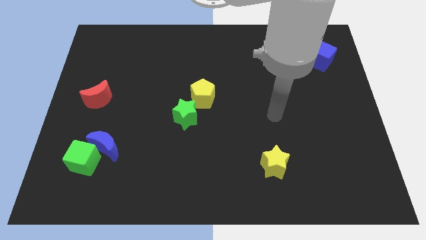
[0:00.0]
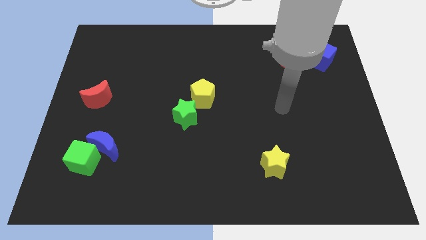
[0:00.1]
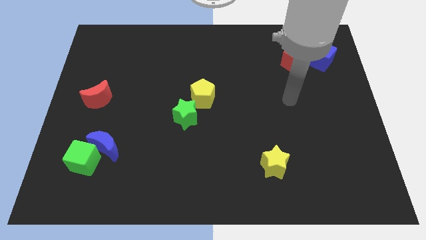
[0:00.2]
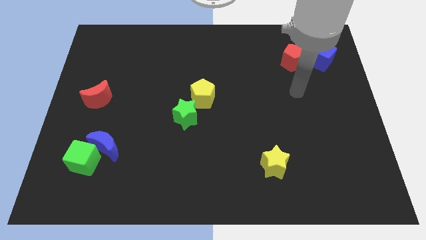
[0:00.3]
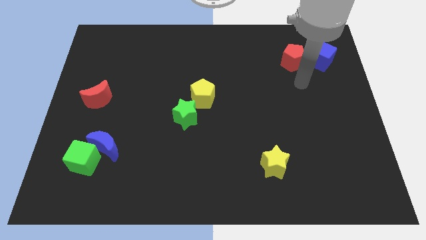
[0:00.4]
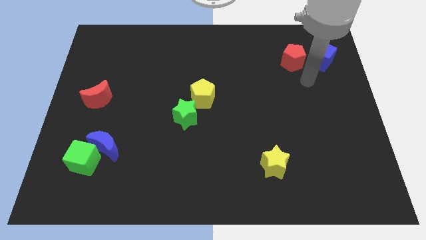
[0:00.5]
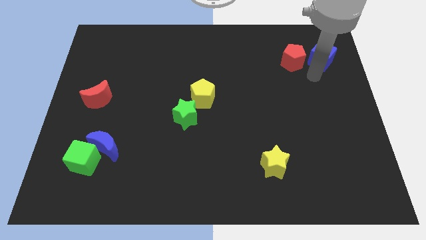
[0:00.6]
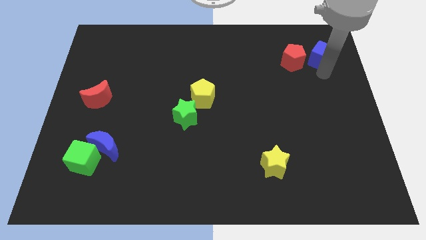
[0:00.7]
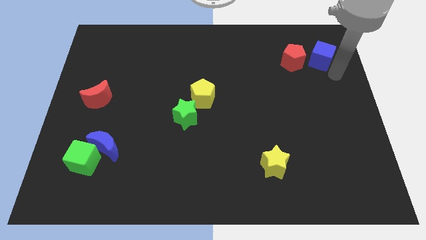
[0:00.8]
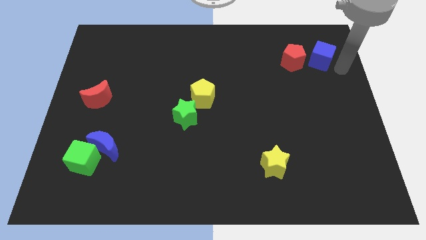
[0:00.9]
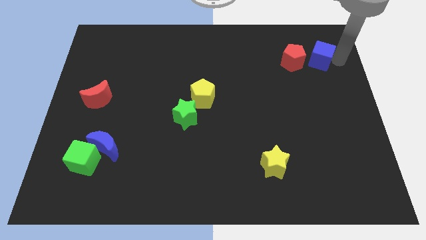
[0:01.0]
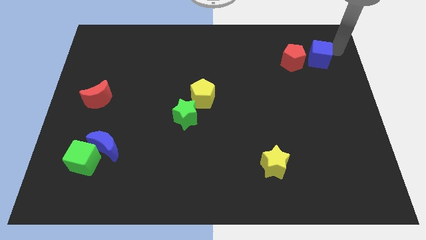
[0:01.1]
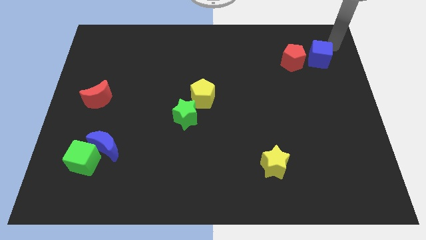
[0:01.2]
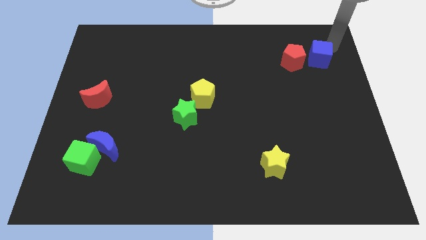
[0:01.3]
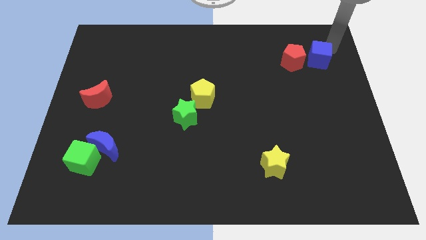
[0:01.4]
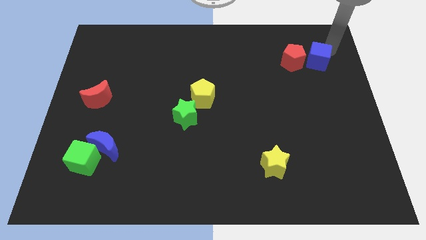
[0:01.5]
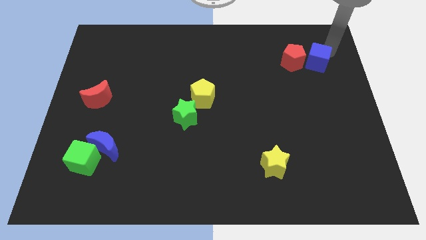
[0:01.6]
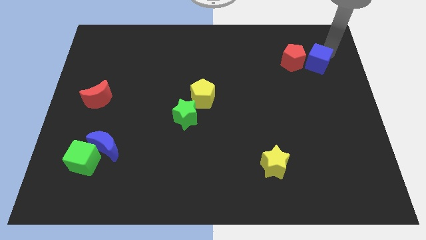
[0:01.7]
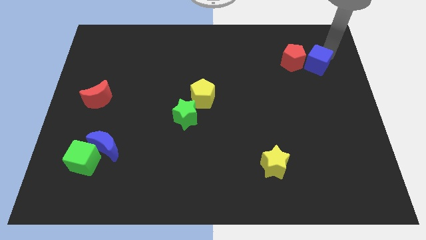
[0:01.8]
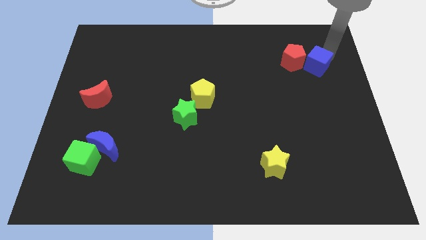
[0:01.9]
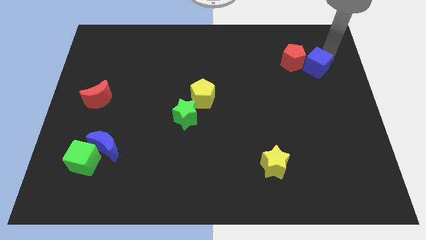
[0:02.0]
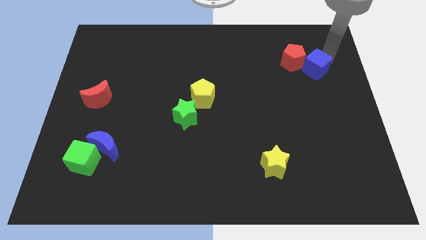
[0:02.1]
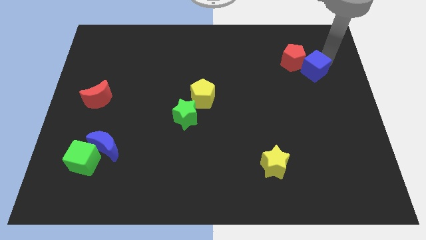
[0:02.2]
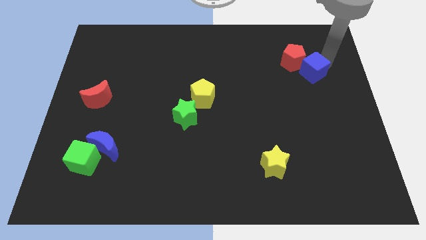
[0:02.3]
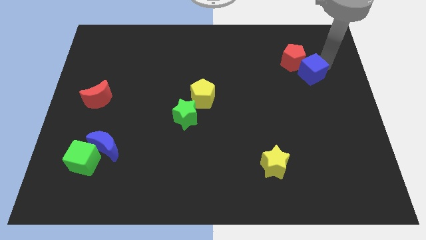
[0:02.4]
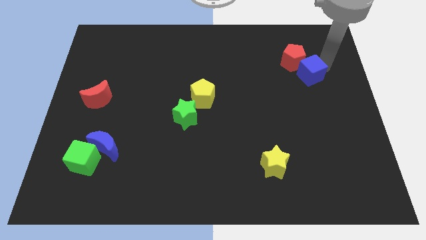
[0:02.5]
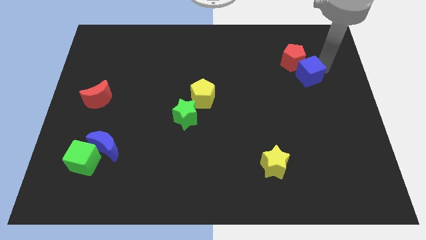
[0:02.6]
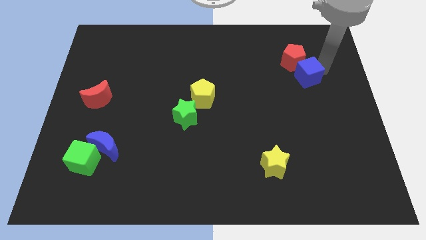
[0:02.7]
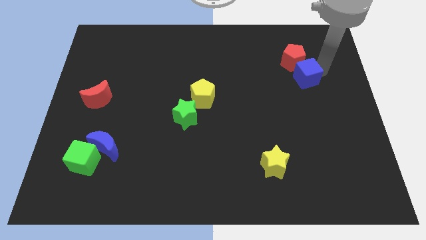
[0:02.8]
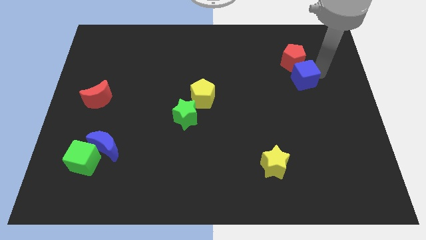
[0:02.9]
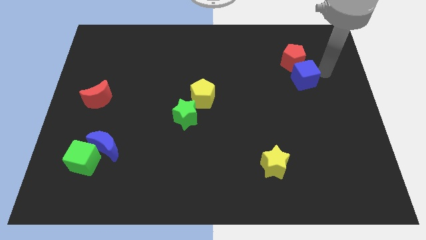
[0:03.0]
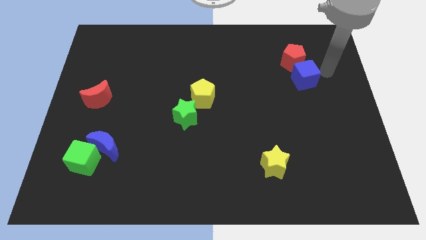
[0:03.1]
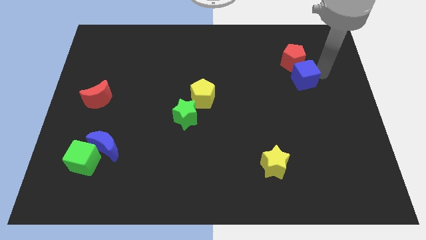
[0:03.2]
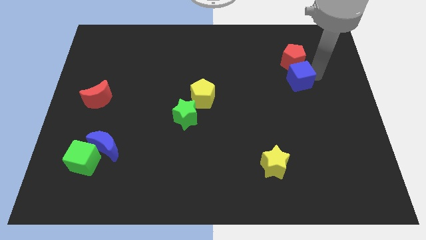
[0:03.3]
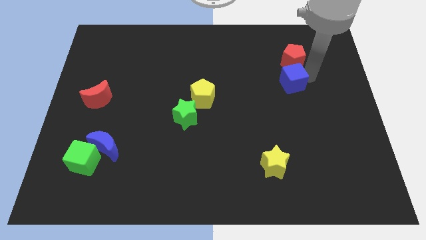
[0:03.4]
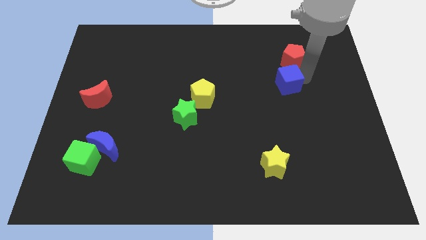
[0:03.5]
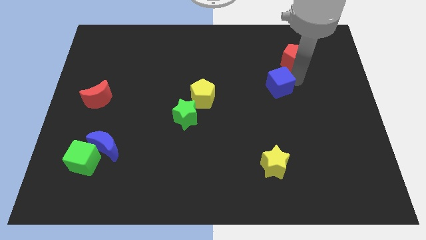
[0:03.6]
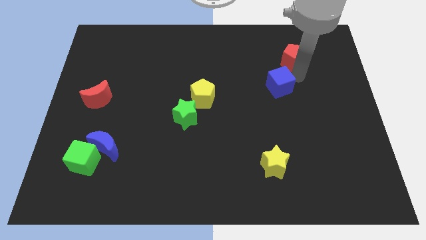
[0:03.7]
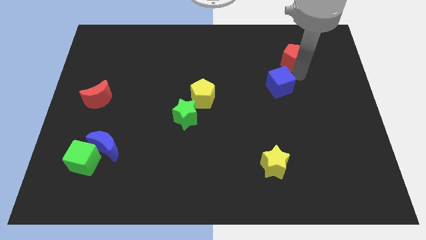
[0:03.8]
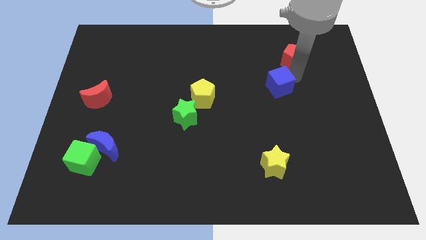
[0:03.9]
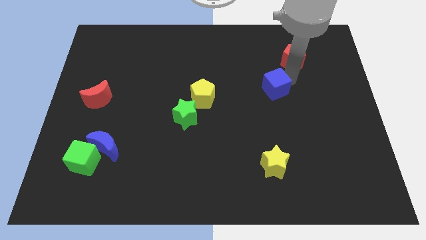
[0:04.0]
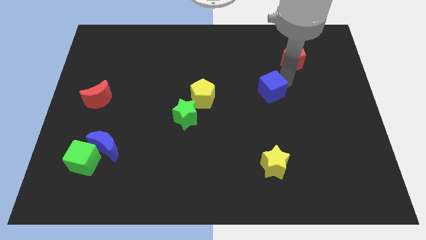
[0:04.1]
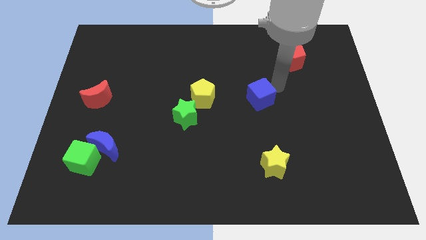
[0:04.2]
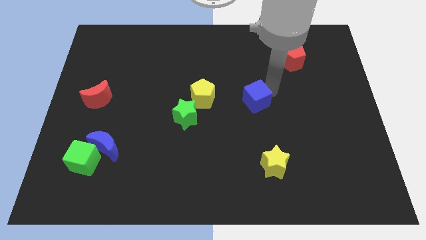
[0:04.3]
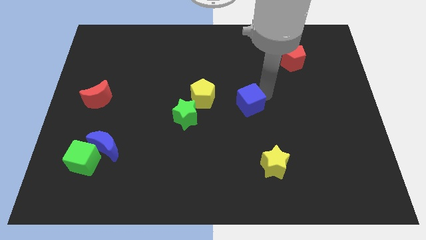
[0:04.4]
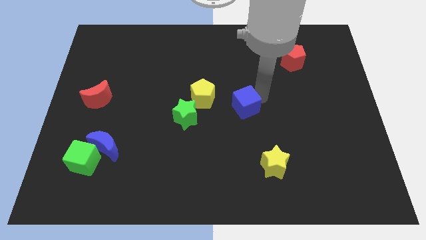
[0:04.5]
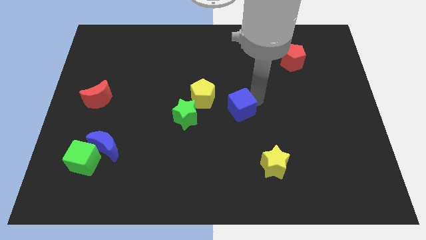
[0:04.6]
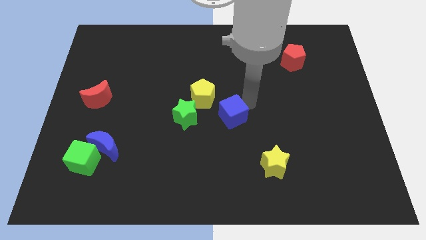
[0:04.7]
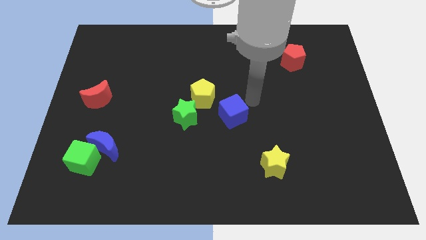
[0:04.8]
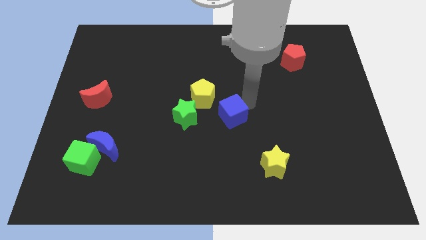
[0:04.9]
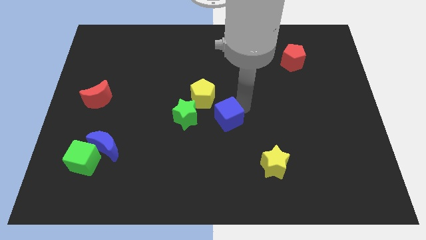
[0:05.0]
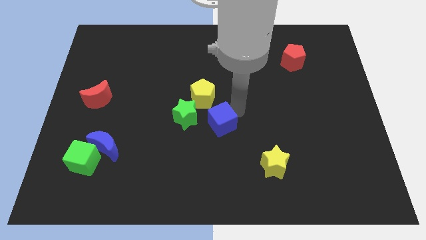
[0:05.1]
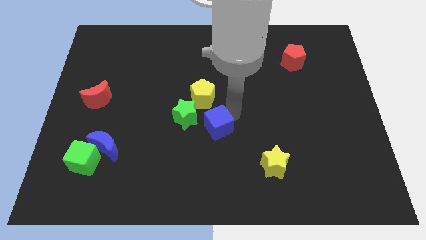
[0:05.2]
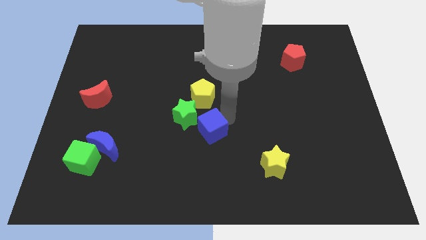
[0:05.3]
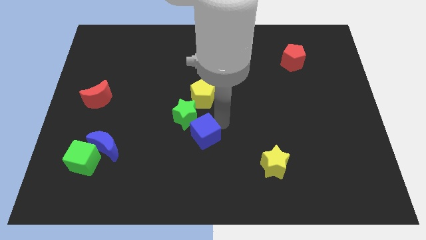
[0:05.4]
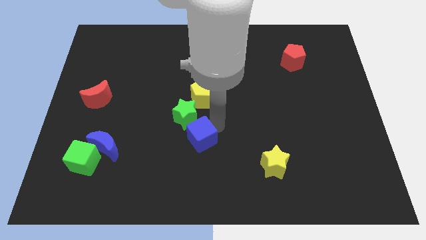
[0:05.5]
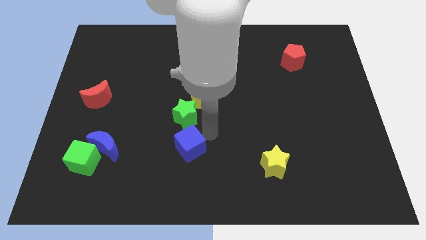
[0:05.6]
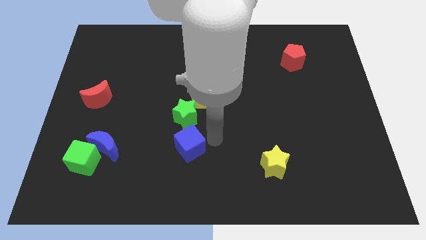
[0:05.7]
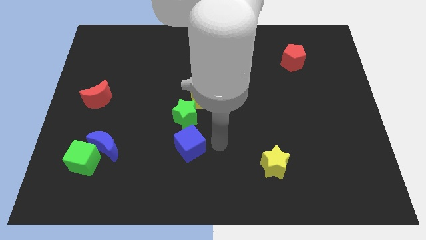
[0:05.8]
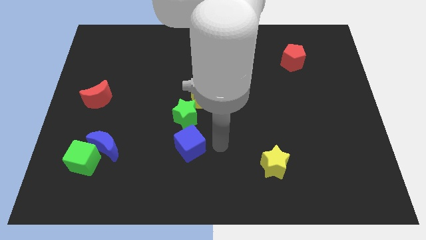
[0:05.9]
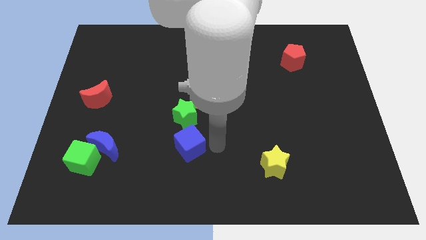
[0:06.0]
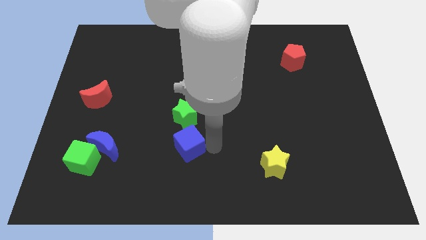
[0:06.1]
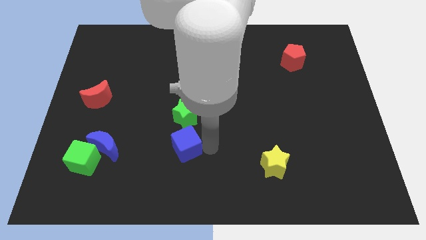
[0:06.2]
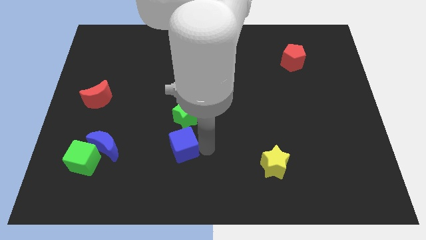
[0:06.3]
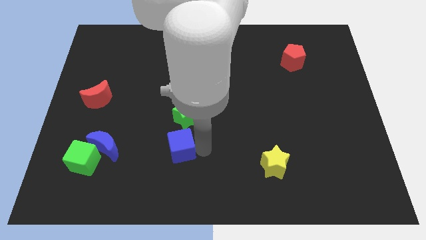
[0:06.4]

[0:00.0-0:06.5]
put the blue cube just right of the blue moon

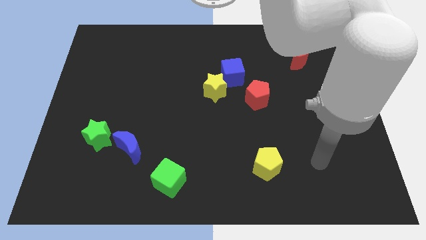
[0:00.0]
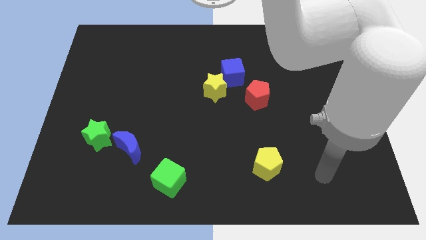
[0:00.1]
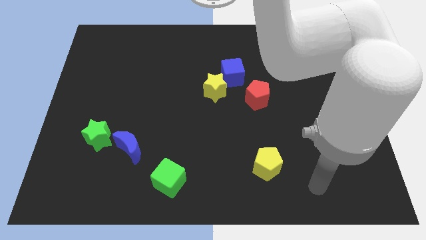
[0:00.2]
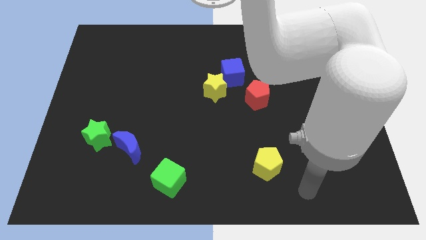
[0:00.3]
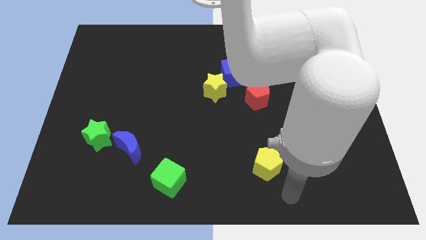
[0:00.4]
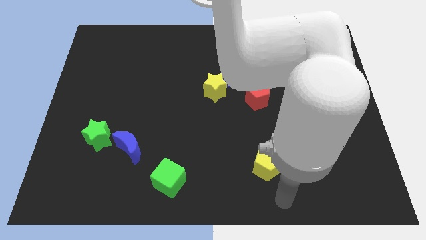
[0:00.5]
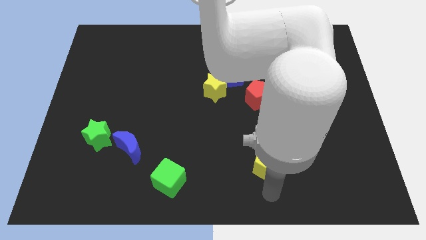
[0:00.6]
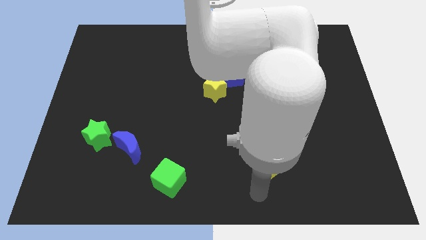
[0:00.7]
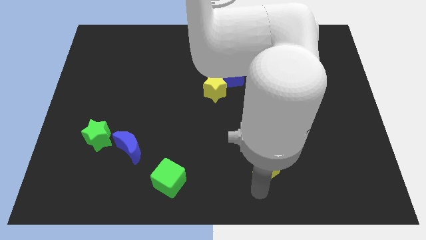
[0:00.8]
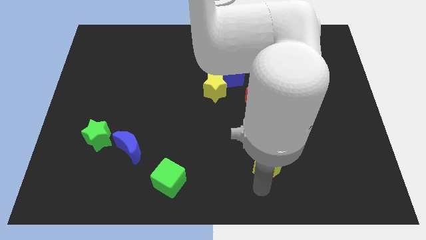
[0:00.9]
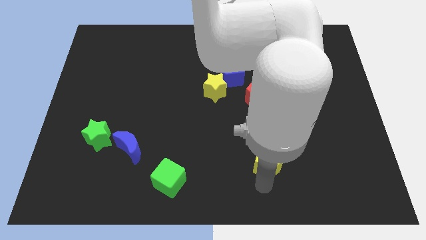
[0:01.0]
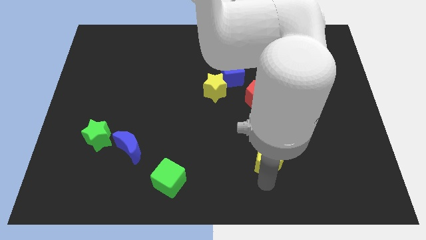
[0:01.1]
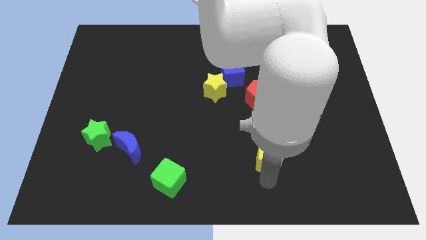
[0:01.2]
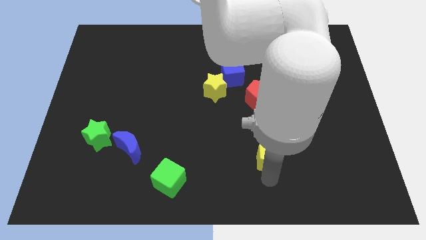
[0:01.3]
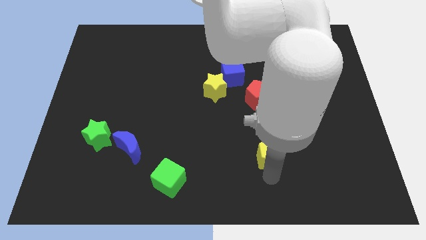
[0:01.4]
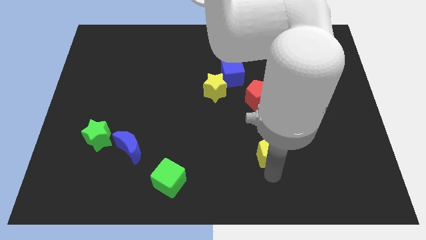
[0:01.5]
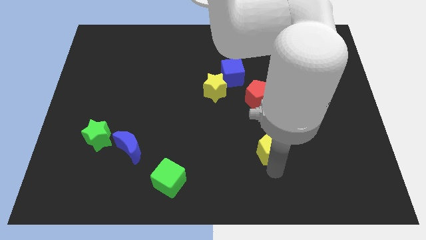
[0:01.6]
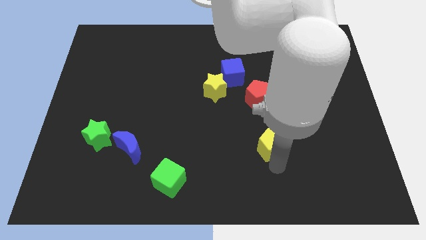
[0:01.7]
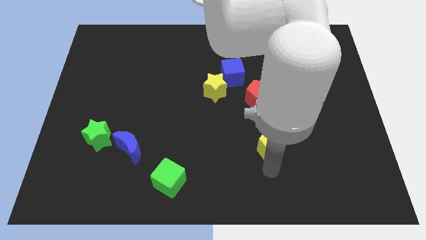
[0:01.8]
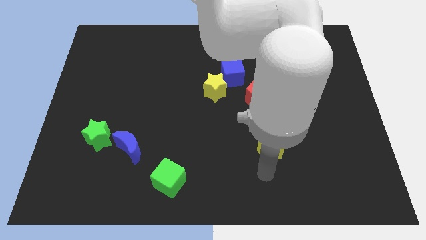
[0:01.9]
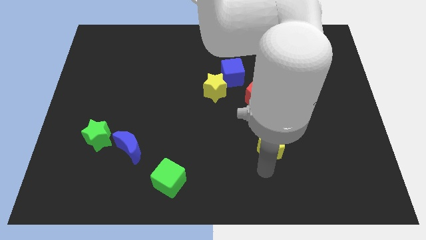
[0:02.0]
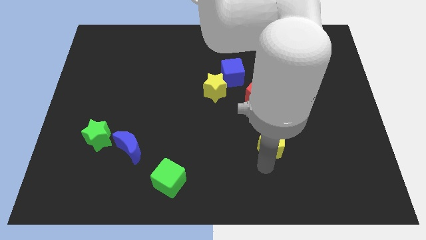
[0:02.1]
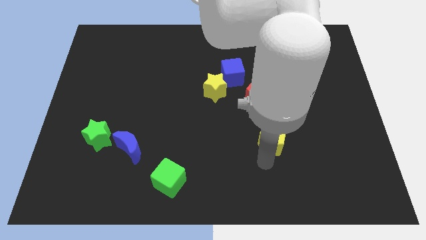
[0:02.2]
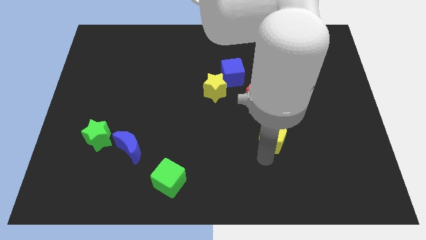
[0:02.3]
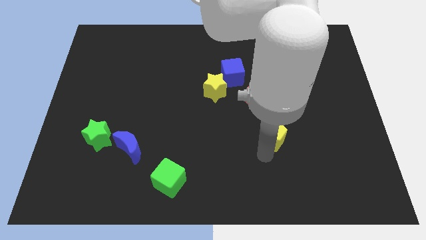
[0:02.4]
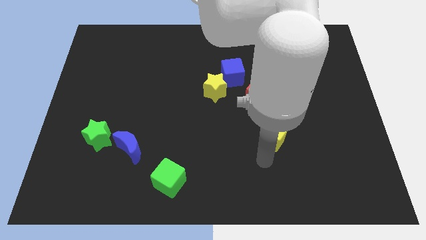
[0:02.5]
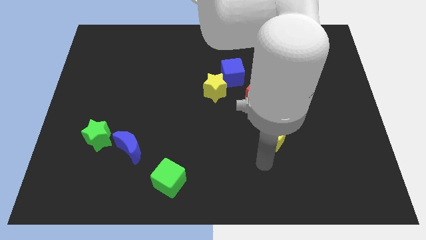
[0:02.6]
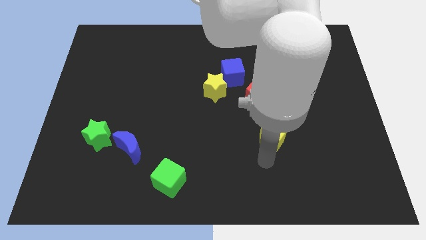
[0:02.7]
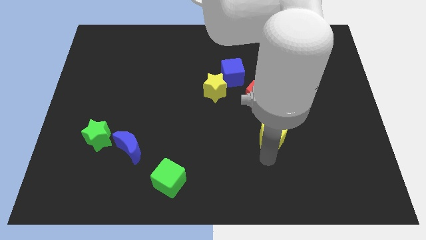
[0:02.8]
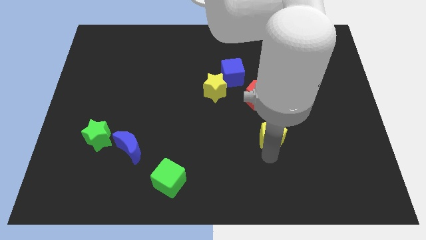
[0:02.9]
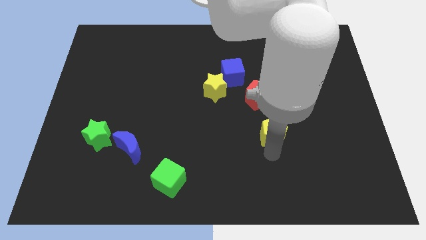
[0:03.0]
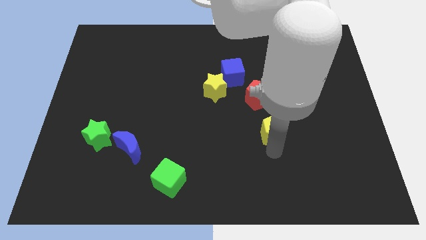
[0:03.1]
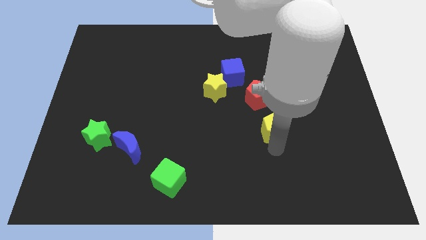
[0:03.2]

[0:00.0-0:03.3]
put the yellow pentagon diagonally down and to the right of the red pentagon
